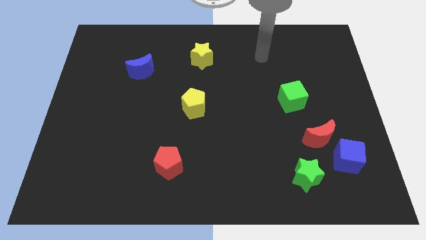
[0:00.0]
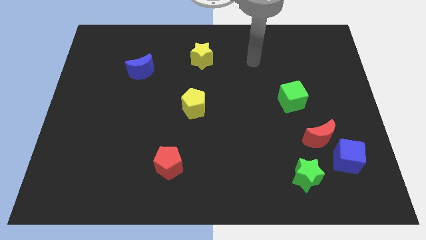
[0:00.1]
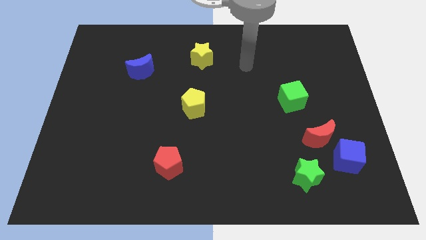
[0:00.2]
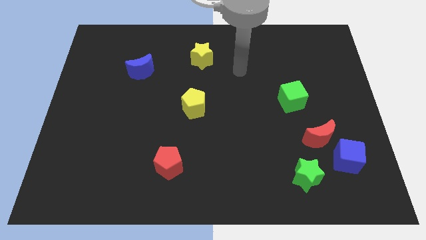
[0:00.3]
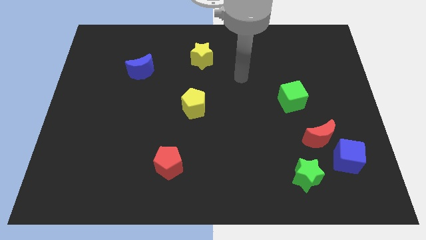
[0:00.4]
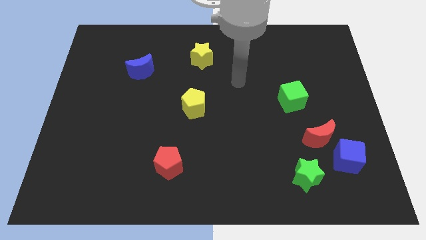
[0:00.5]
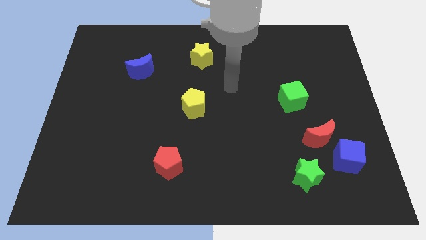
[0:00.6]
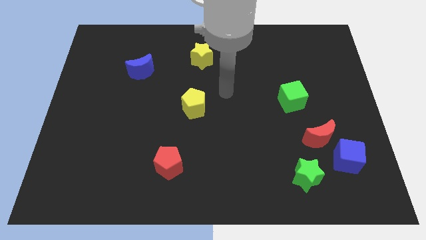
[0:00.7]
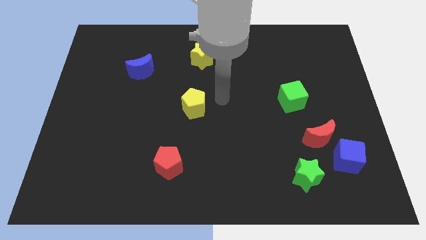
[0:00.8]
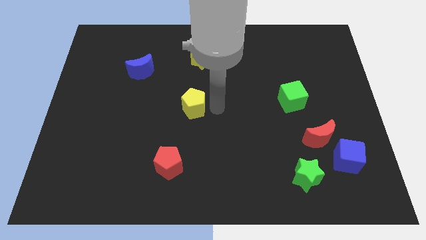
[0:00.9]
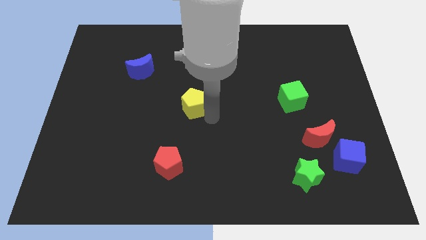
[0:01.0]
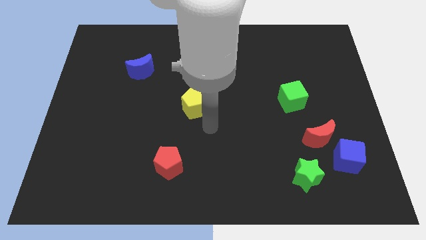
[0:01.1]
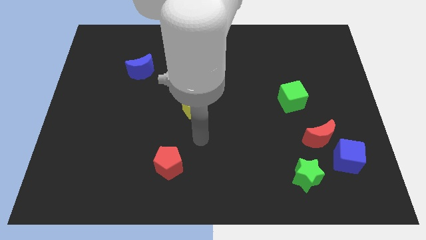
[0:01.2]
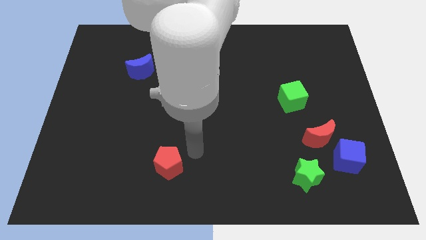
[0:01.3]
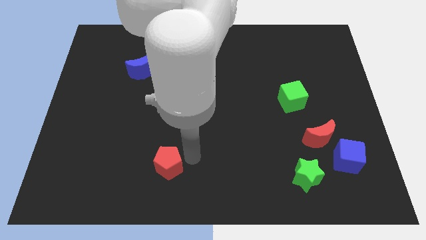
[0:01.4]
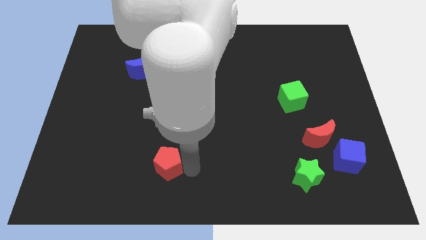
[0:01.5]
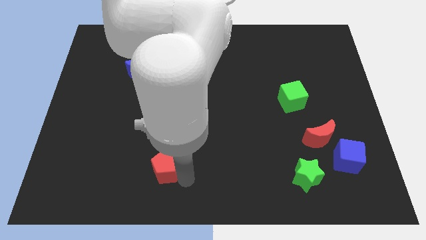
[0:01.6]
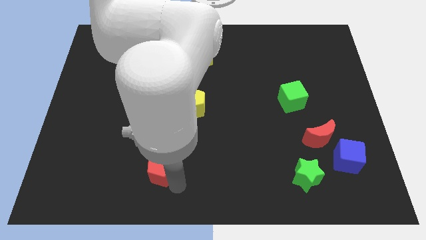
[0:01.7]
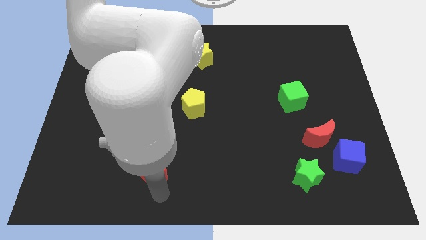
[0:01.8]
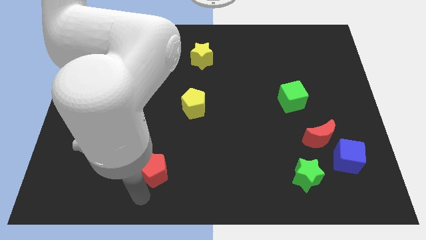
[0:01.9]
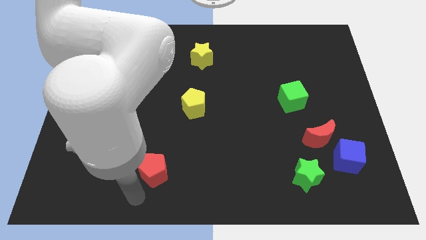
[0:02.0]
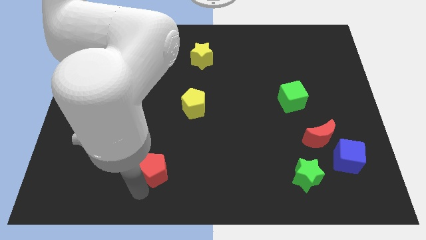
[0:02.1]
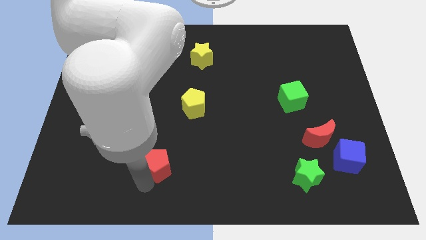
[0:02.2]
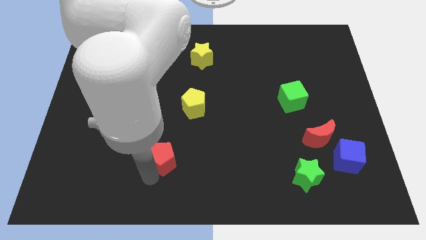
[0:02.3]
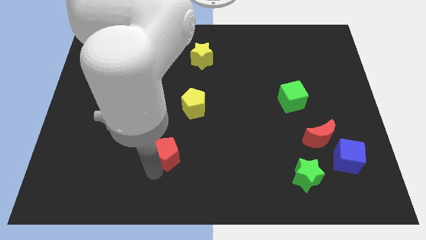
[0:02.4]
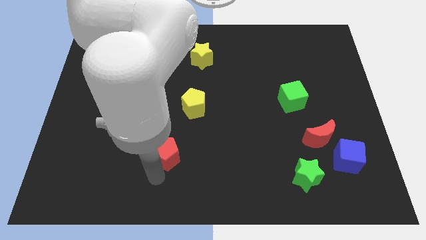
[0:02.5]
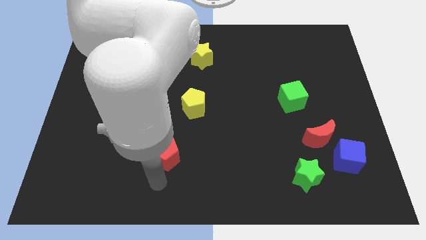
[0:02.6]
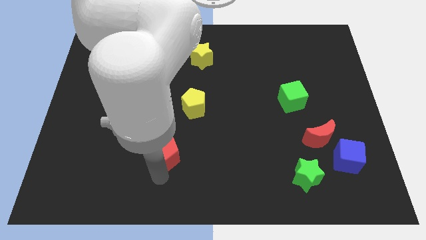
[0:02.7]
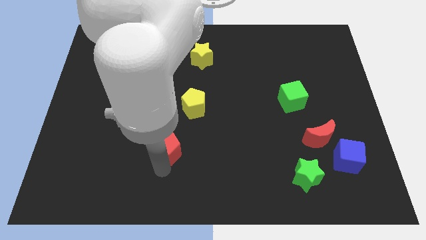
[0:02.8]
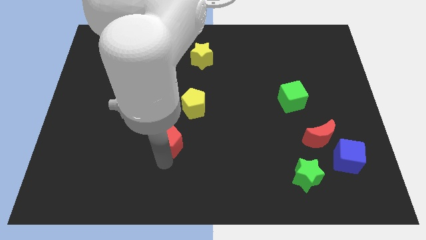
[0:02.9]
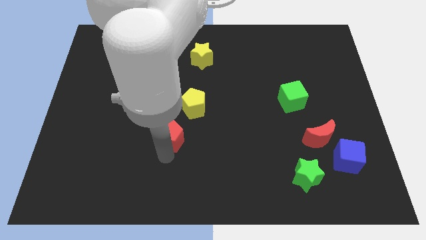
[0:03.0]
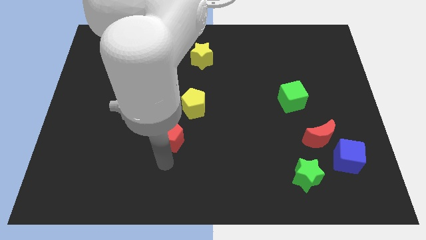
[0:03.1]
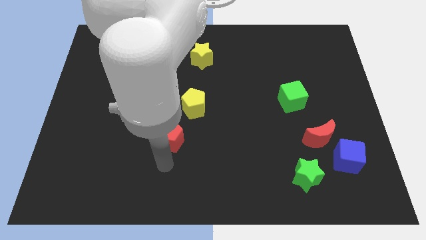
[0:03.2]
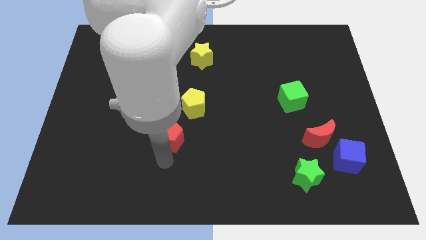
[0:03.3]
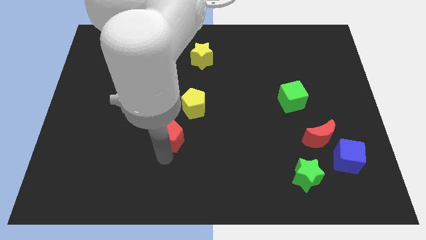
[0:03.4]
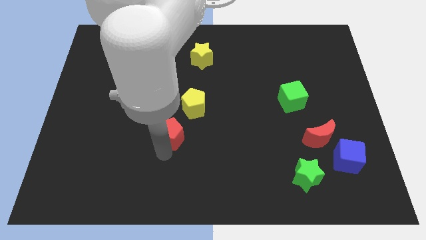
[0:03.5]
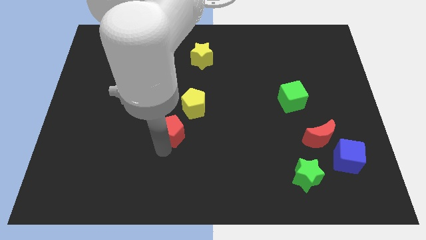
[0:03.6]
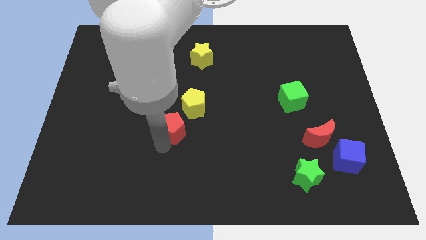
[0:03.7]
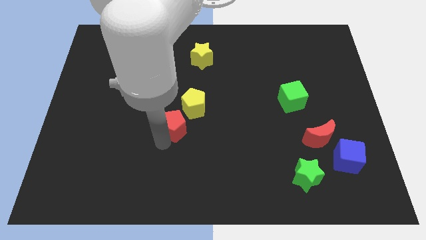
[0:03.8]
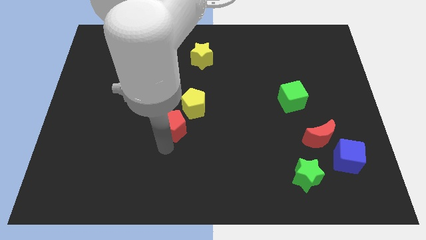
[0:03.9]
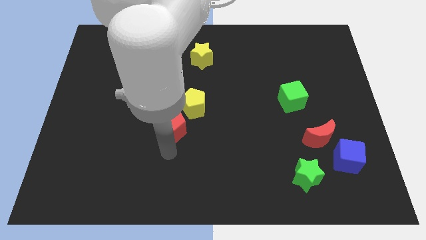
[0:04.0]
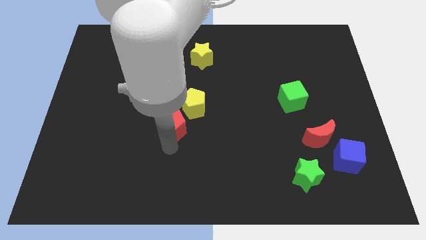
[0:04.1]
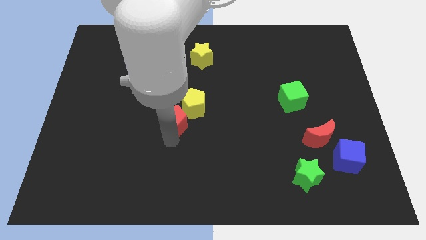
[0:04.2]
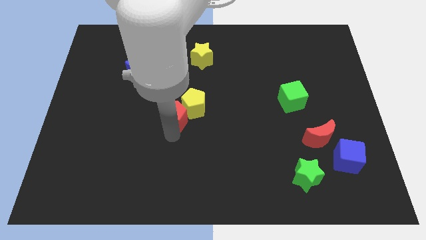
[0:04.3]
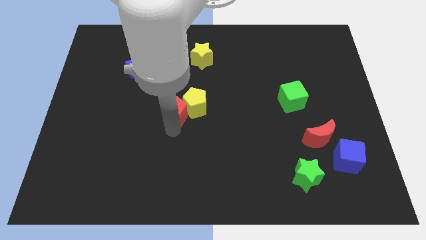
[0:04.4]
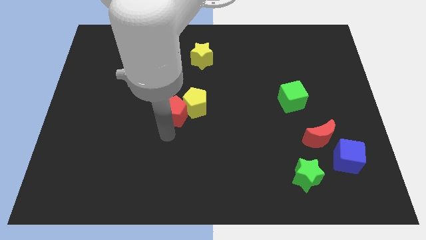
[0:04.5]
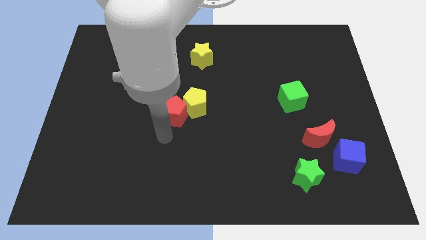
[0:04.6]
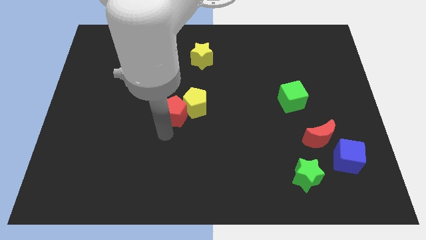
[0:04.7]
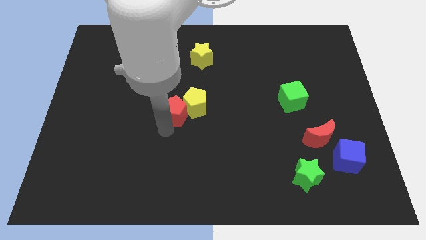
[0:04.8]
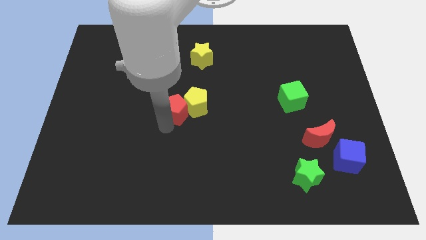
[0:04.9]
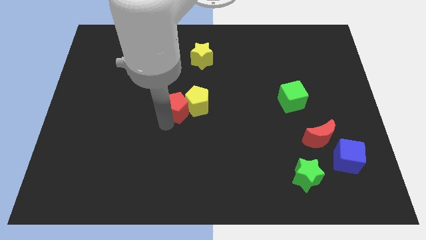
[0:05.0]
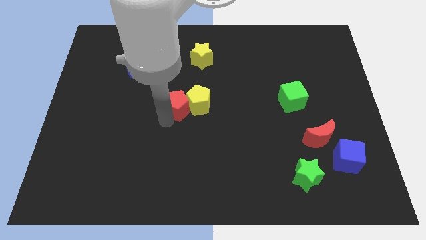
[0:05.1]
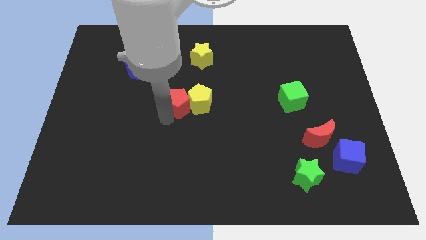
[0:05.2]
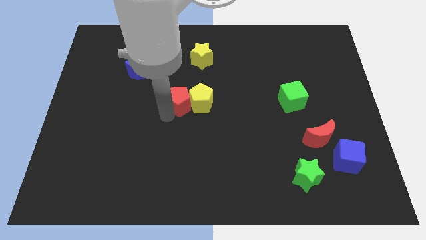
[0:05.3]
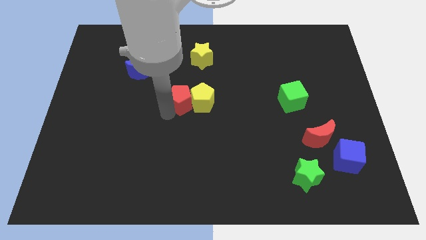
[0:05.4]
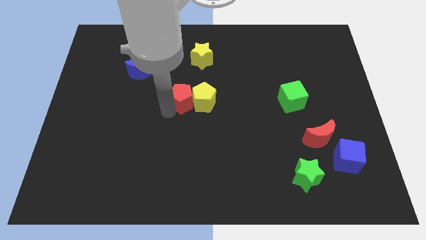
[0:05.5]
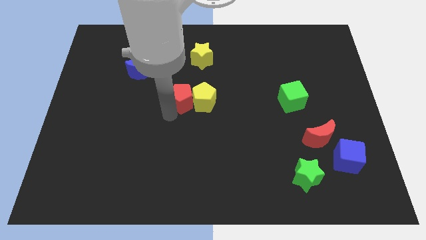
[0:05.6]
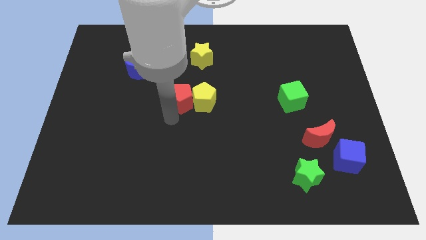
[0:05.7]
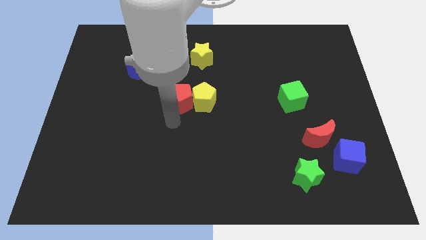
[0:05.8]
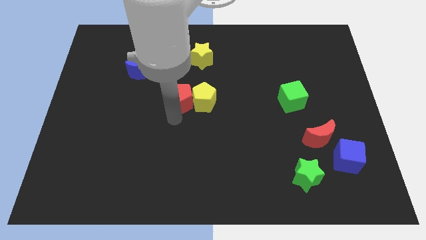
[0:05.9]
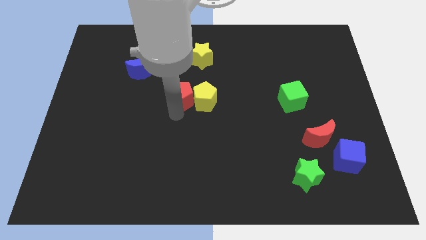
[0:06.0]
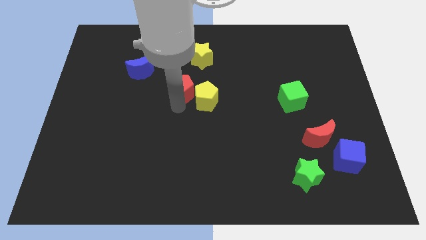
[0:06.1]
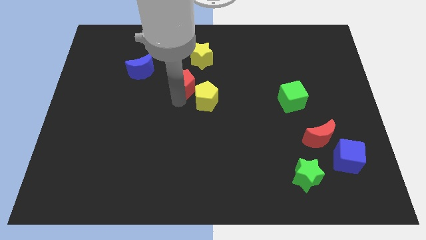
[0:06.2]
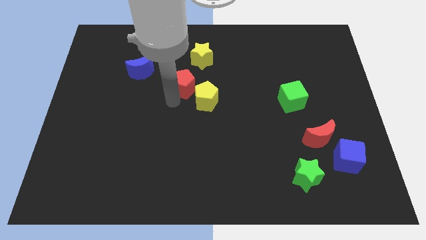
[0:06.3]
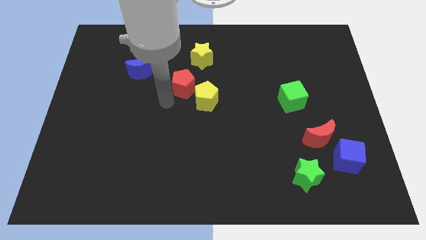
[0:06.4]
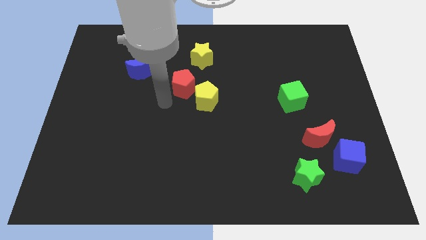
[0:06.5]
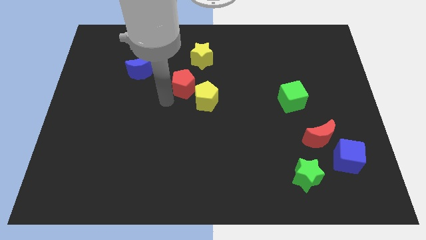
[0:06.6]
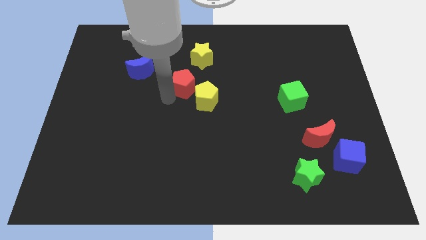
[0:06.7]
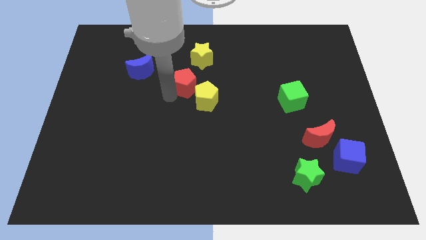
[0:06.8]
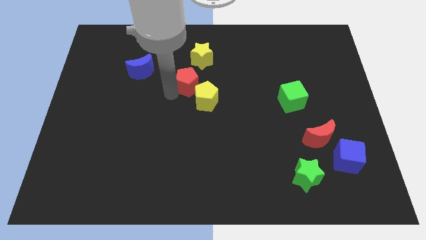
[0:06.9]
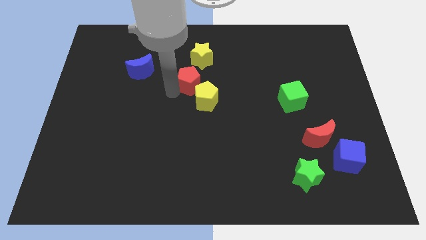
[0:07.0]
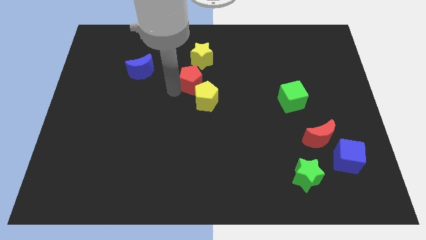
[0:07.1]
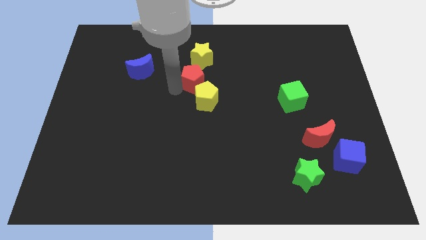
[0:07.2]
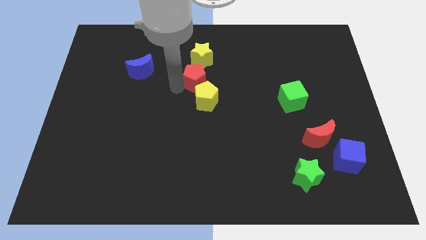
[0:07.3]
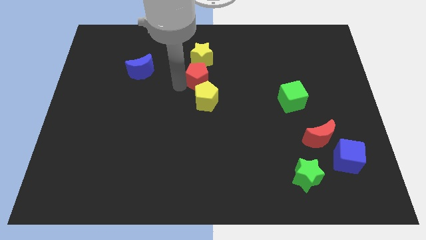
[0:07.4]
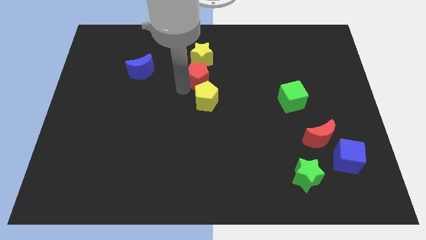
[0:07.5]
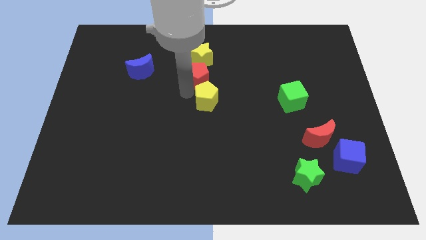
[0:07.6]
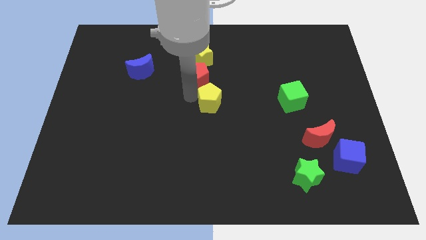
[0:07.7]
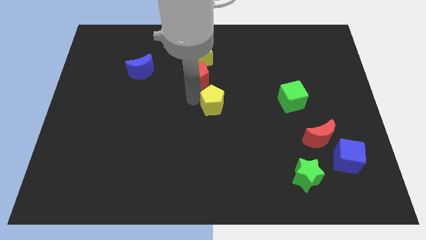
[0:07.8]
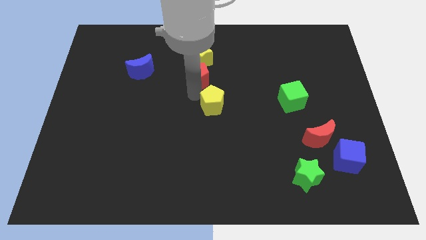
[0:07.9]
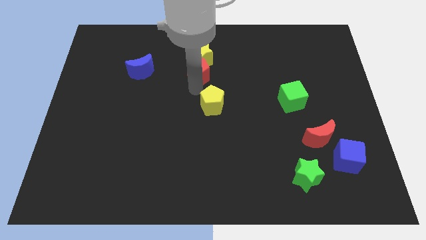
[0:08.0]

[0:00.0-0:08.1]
push the red pentagon close to the yellow star
